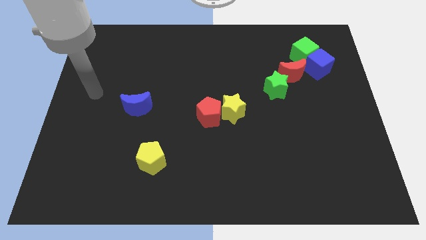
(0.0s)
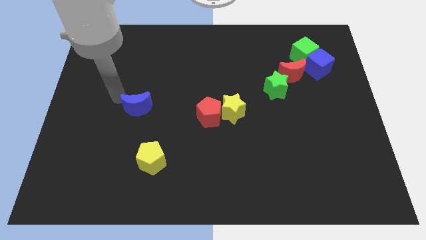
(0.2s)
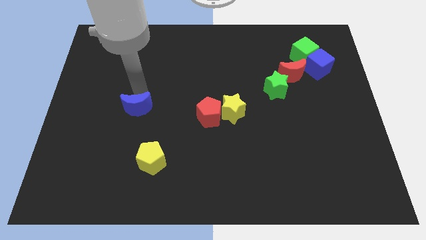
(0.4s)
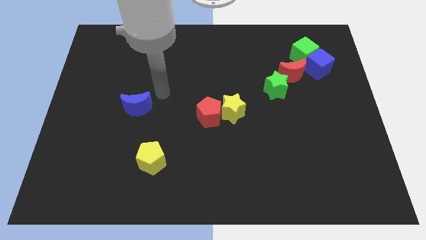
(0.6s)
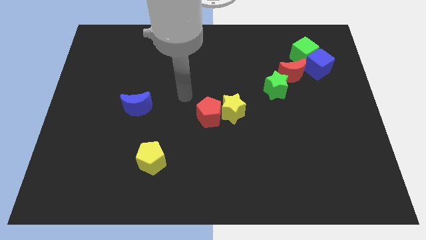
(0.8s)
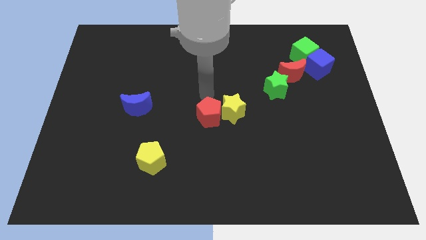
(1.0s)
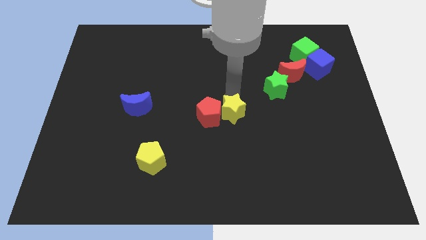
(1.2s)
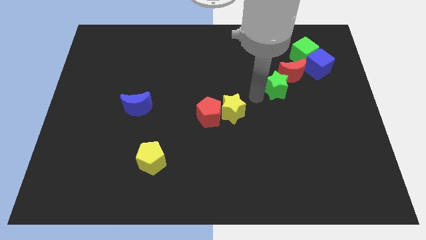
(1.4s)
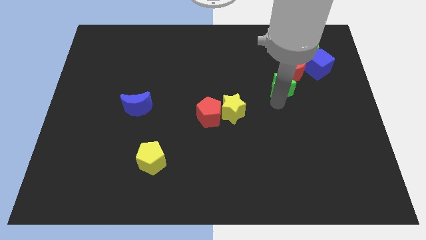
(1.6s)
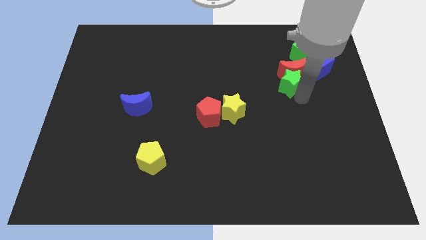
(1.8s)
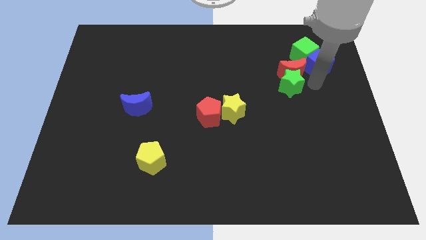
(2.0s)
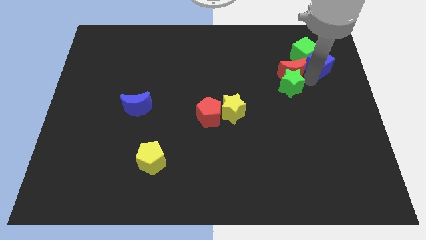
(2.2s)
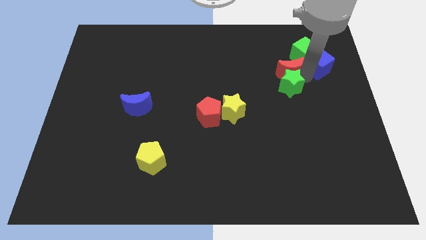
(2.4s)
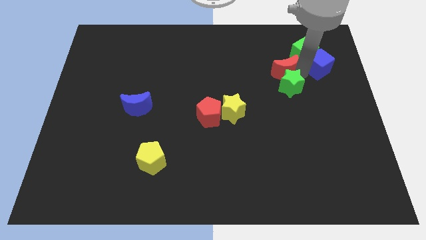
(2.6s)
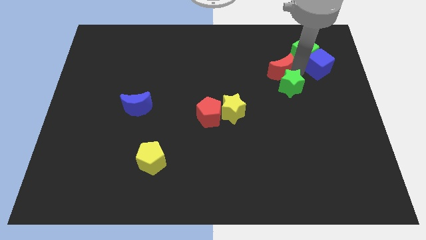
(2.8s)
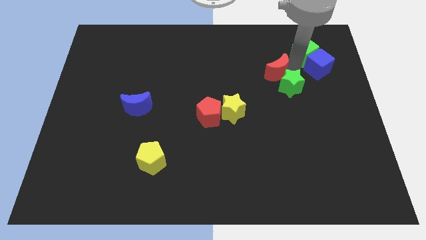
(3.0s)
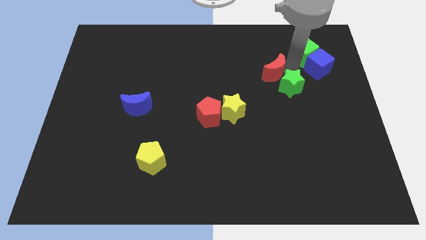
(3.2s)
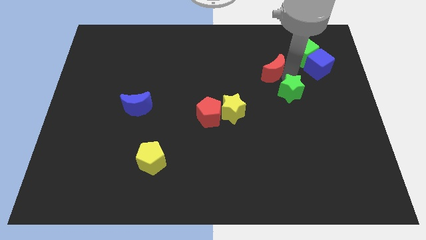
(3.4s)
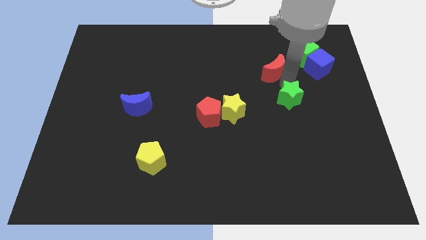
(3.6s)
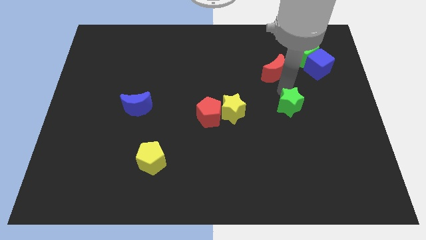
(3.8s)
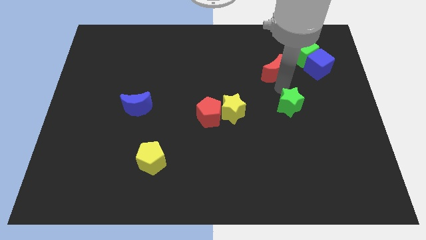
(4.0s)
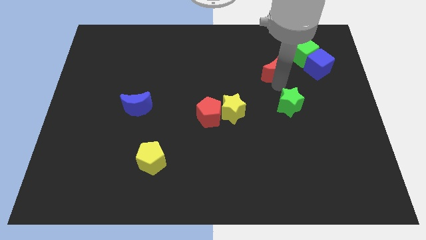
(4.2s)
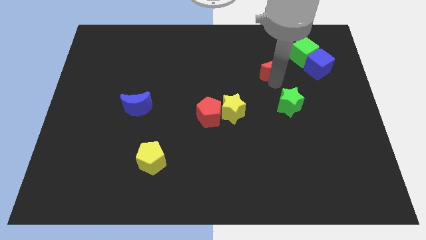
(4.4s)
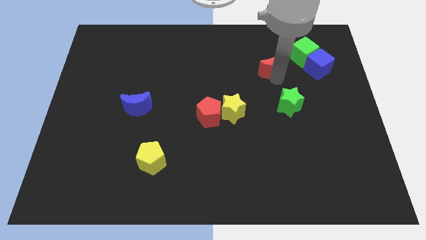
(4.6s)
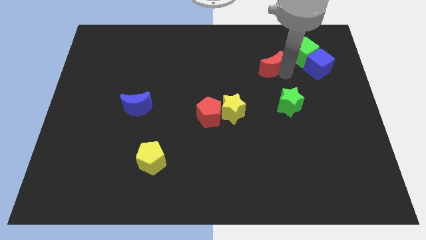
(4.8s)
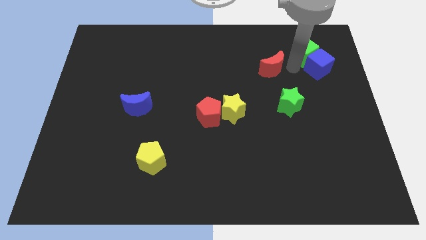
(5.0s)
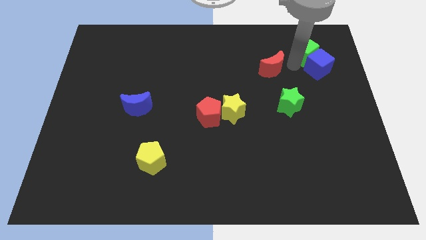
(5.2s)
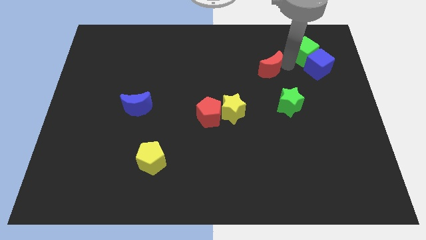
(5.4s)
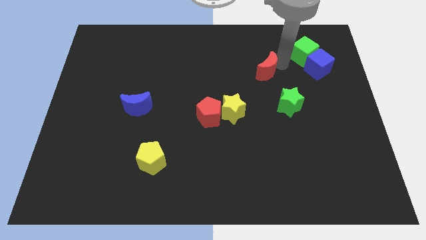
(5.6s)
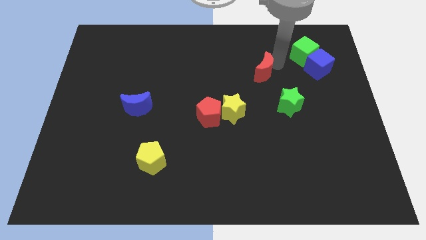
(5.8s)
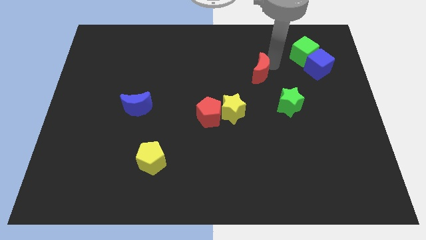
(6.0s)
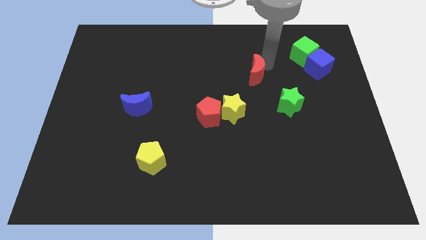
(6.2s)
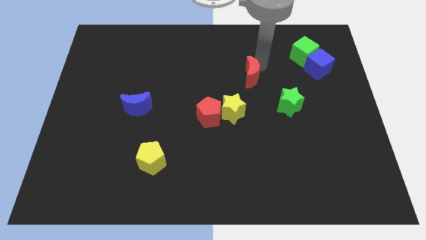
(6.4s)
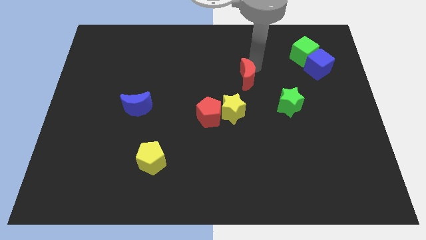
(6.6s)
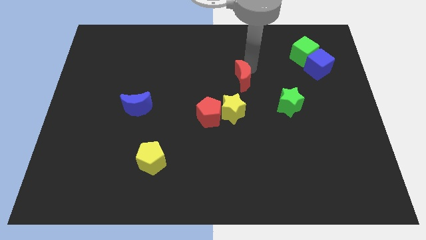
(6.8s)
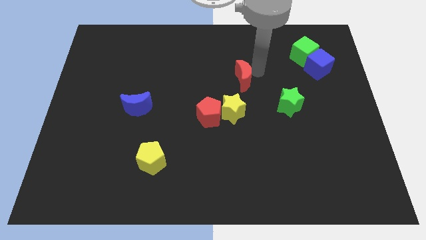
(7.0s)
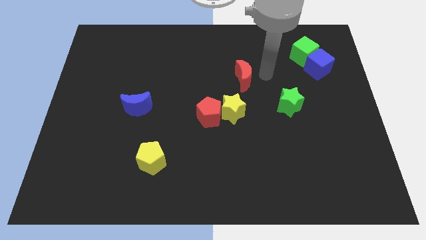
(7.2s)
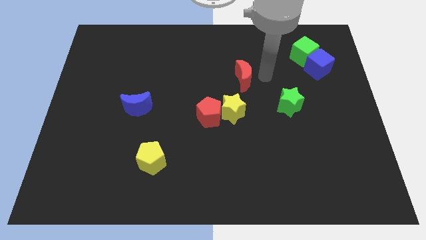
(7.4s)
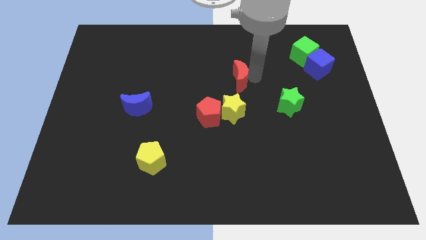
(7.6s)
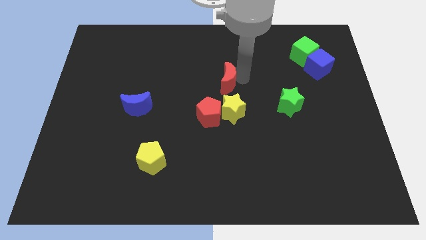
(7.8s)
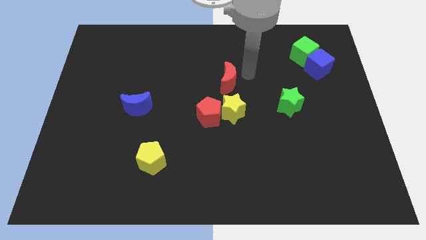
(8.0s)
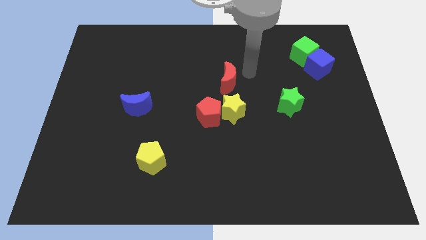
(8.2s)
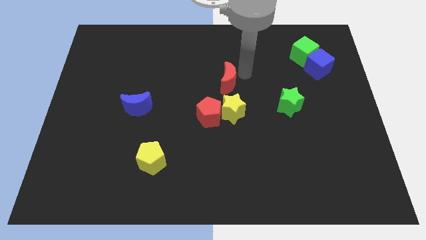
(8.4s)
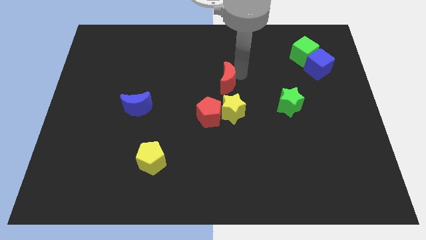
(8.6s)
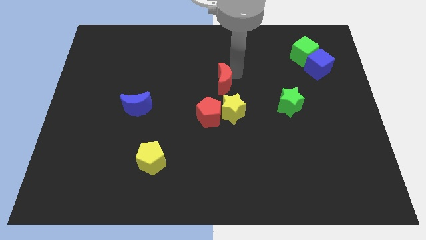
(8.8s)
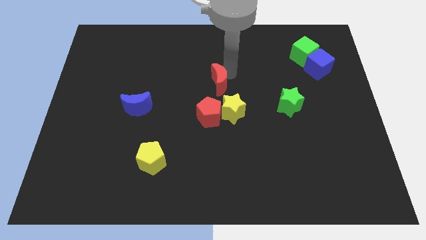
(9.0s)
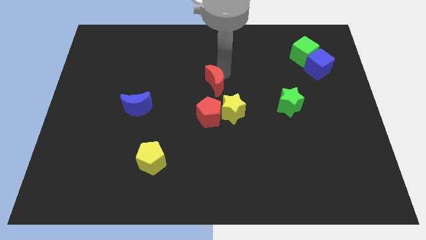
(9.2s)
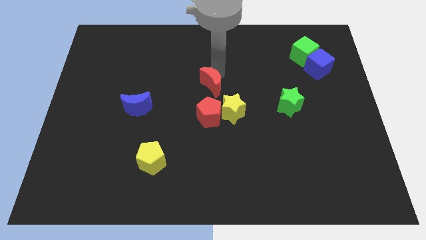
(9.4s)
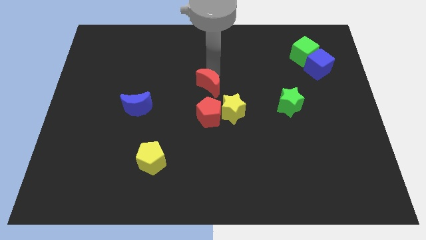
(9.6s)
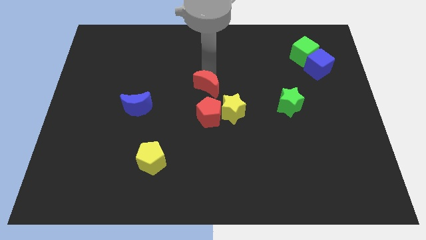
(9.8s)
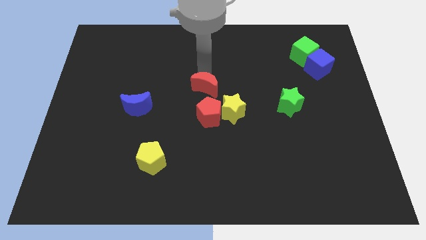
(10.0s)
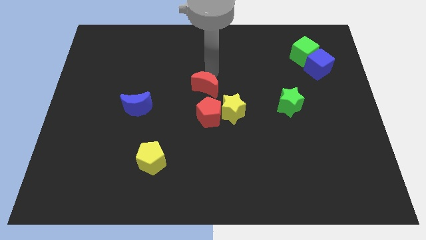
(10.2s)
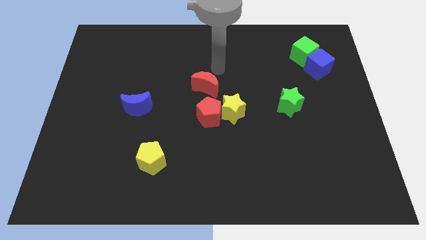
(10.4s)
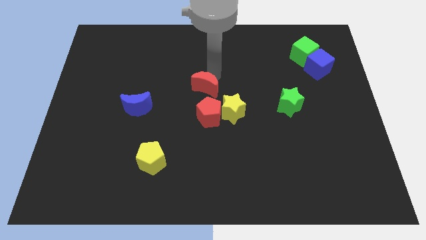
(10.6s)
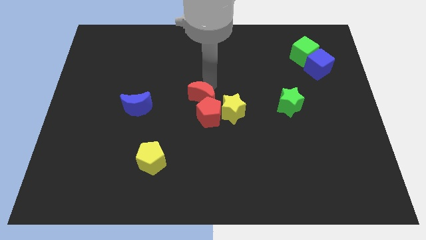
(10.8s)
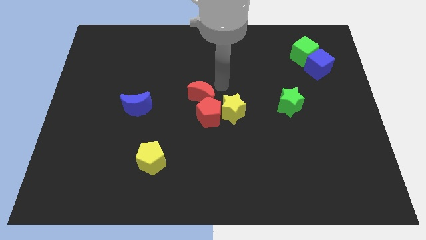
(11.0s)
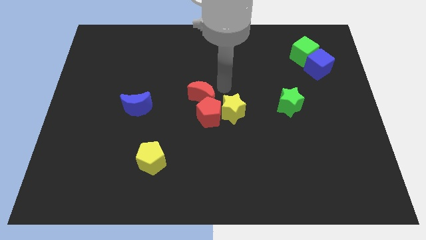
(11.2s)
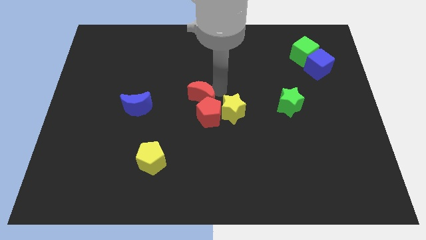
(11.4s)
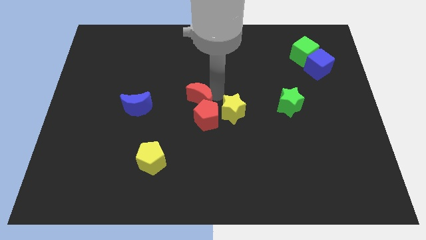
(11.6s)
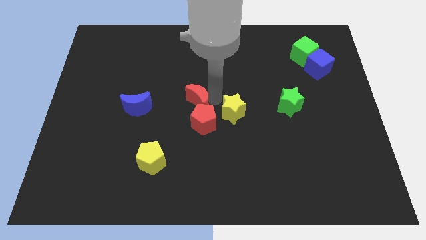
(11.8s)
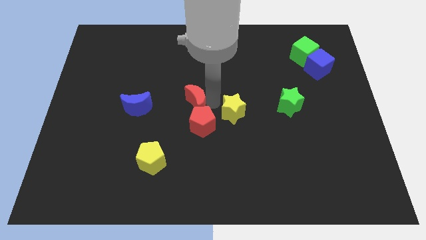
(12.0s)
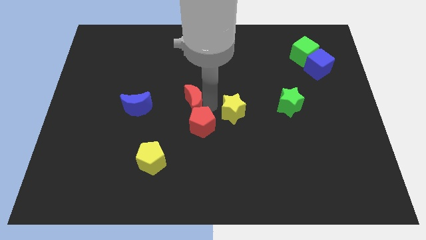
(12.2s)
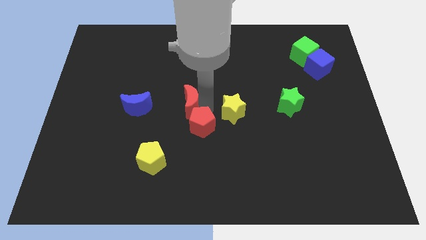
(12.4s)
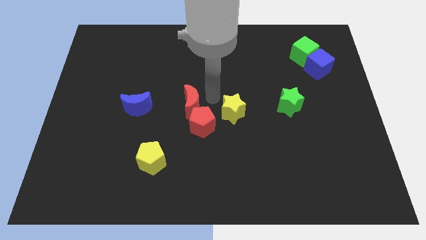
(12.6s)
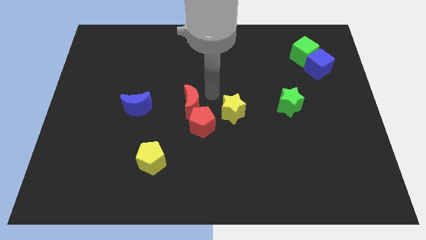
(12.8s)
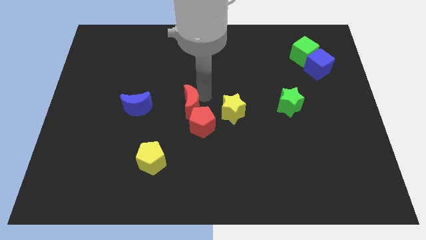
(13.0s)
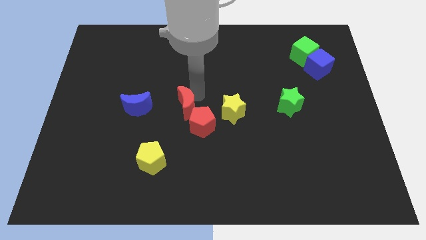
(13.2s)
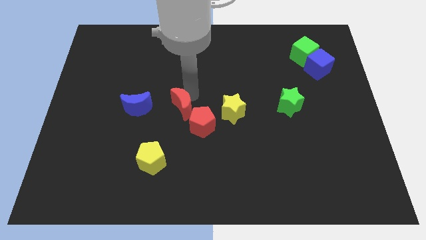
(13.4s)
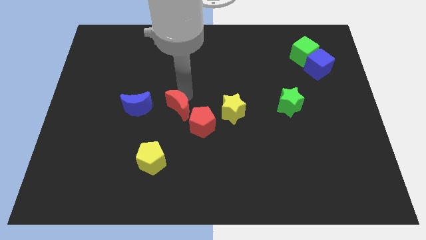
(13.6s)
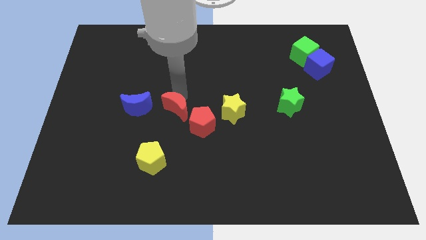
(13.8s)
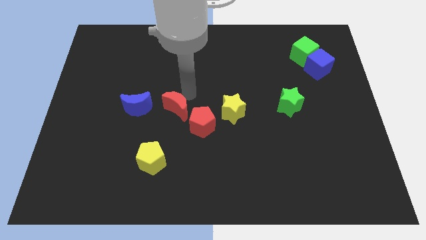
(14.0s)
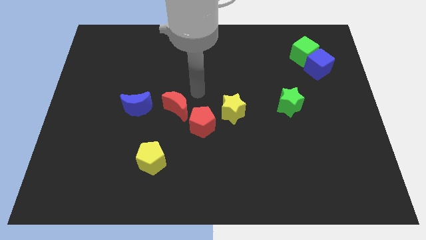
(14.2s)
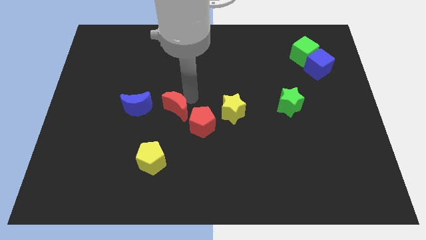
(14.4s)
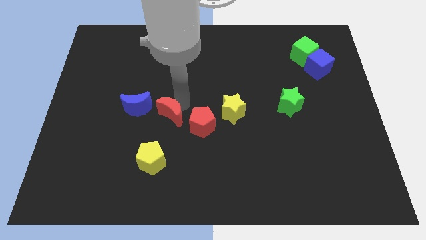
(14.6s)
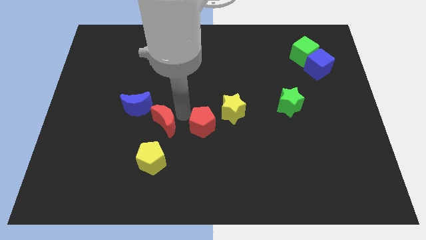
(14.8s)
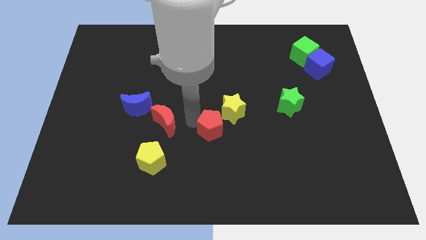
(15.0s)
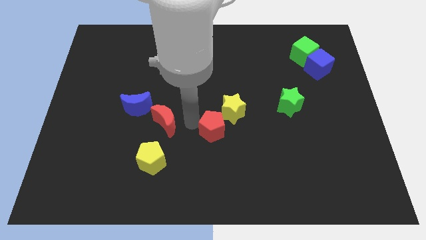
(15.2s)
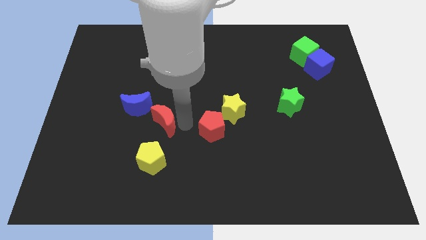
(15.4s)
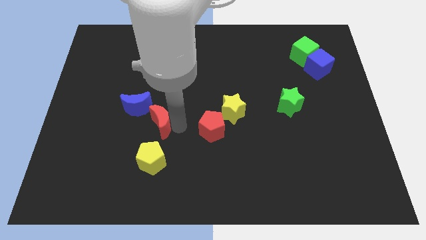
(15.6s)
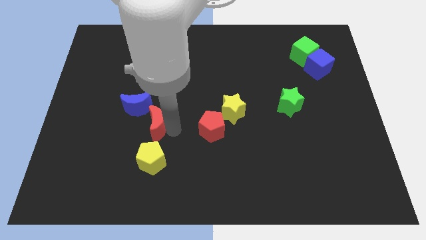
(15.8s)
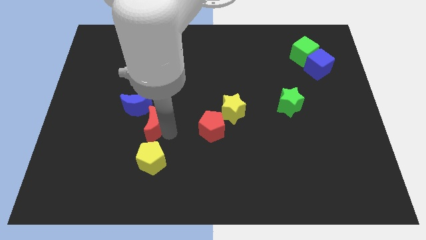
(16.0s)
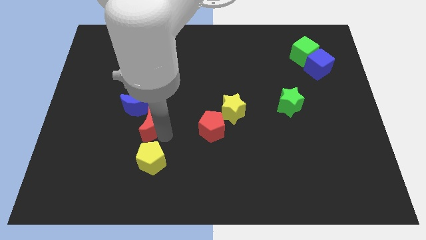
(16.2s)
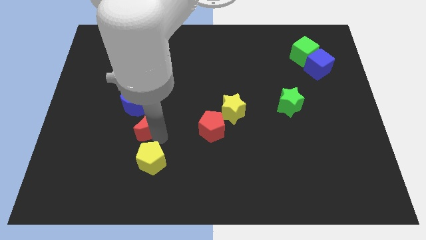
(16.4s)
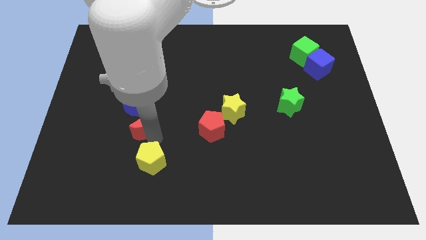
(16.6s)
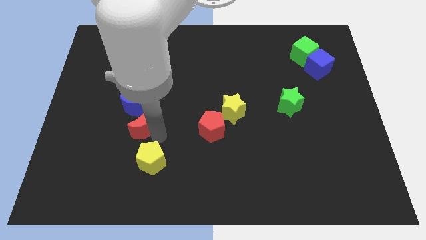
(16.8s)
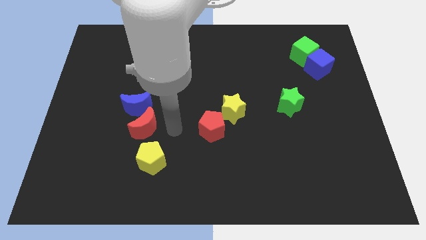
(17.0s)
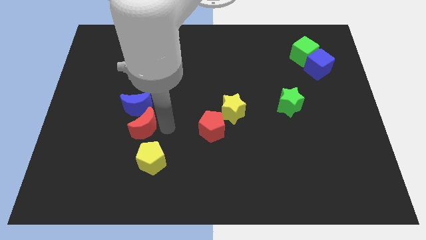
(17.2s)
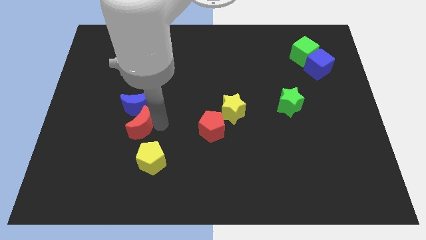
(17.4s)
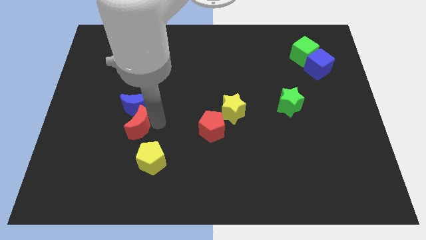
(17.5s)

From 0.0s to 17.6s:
push the red moon to the bottom left side of the blue moon
